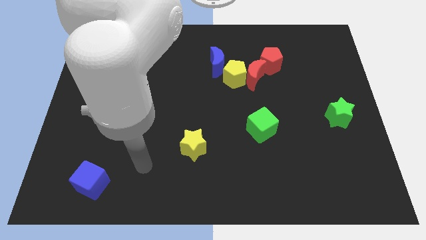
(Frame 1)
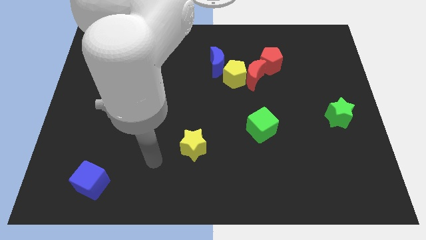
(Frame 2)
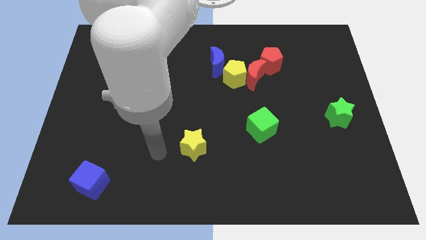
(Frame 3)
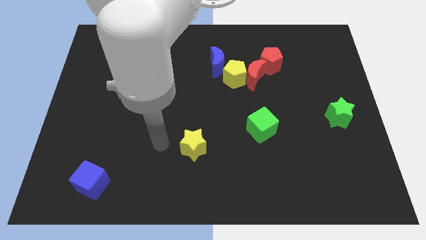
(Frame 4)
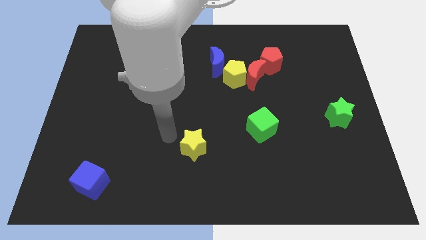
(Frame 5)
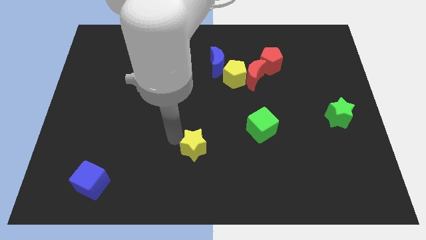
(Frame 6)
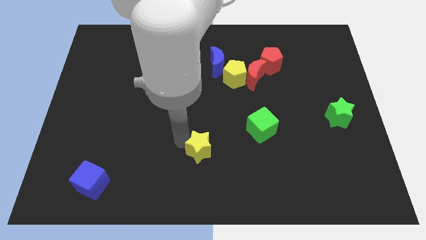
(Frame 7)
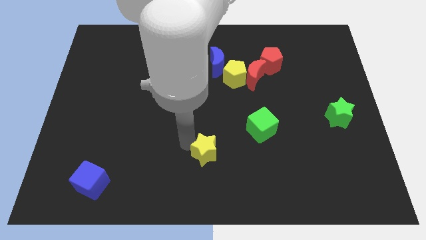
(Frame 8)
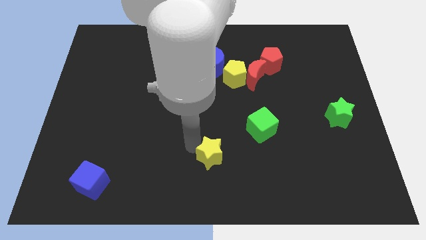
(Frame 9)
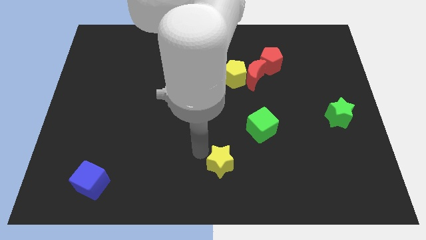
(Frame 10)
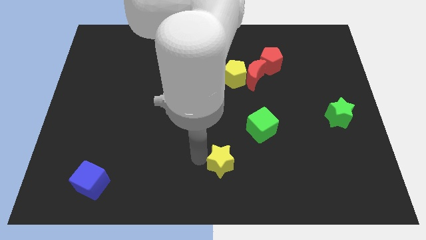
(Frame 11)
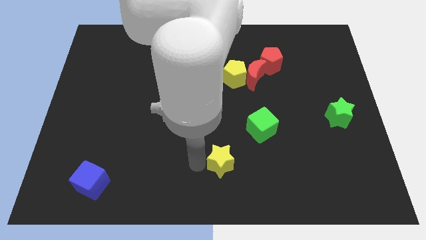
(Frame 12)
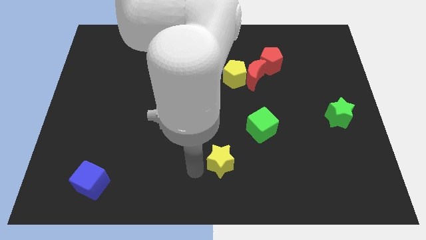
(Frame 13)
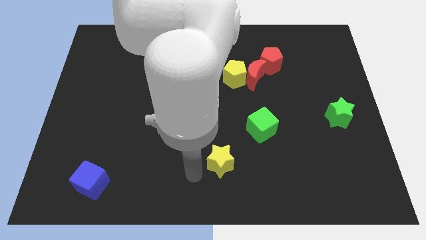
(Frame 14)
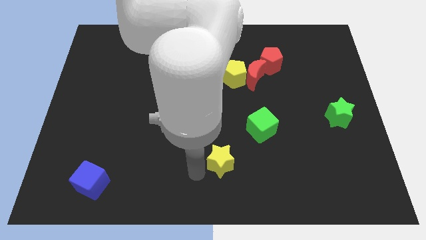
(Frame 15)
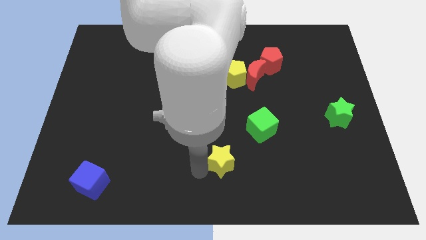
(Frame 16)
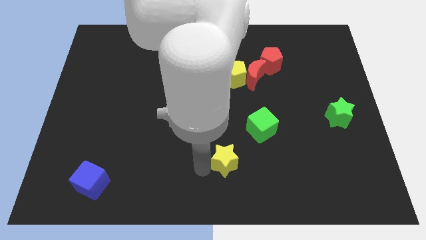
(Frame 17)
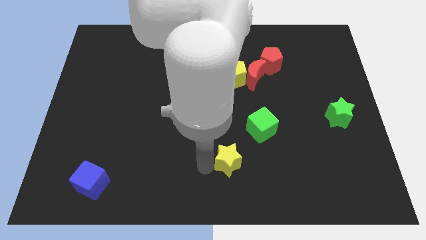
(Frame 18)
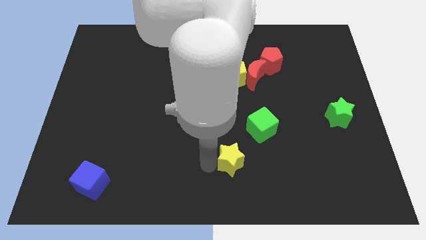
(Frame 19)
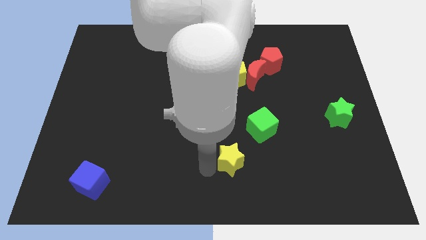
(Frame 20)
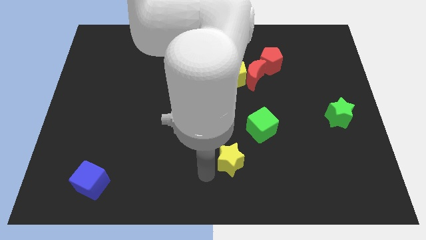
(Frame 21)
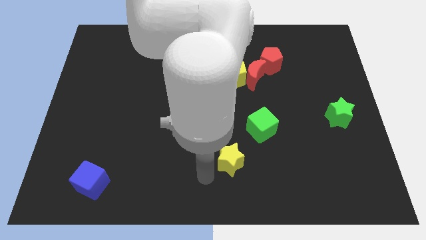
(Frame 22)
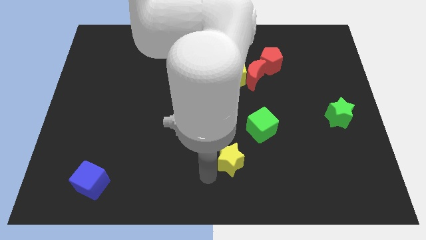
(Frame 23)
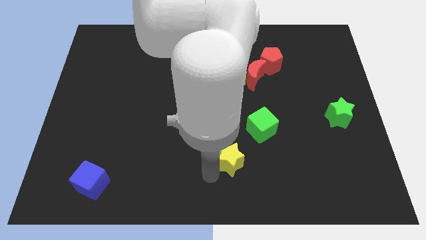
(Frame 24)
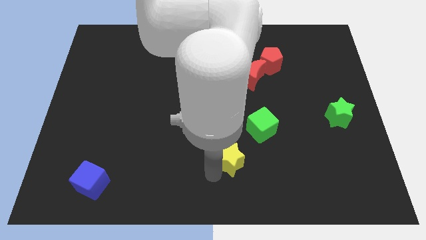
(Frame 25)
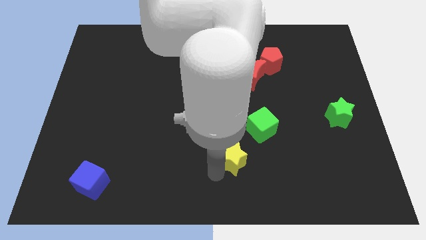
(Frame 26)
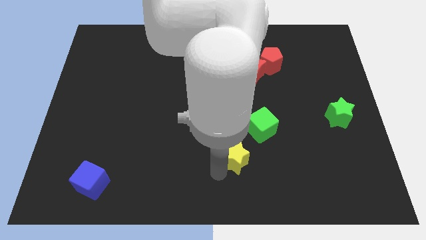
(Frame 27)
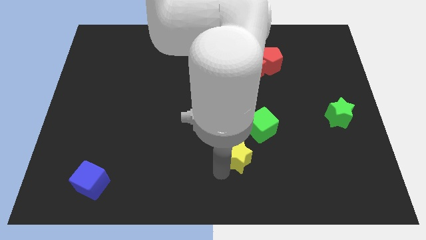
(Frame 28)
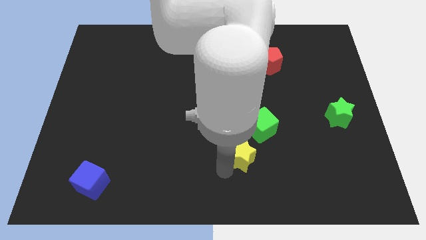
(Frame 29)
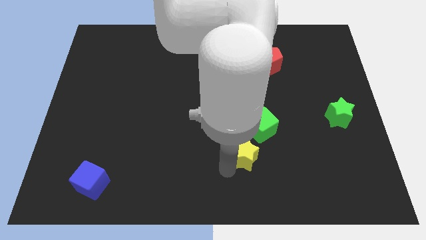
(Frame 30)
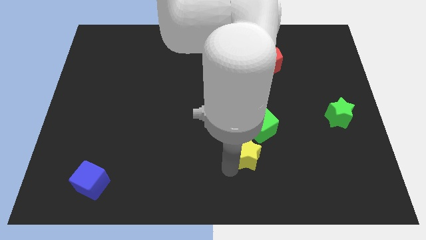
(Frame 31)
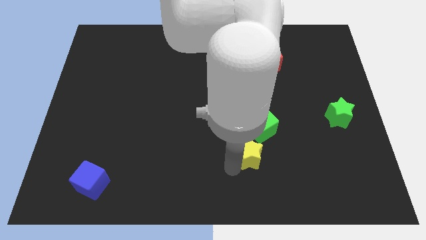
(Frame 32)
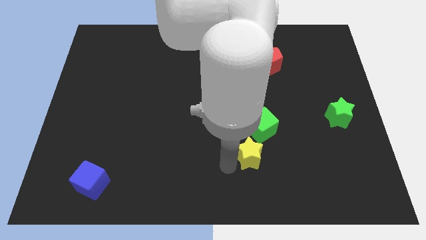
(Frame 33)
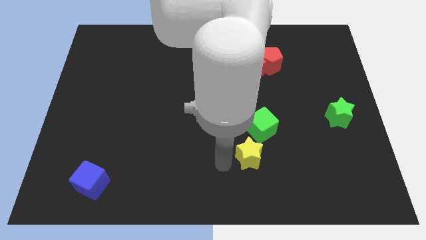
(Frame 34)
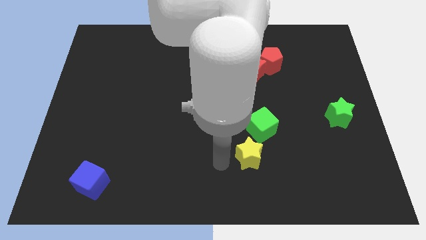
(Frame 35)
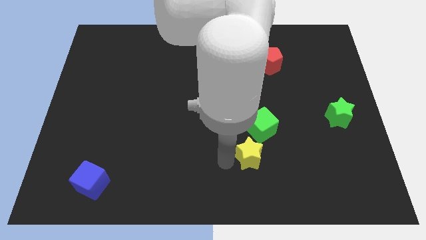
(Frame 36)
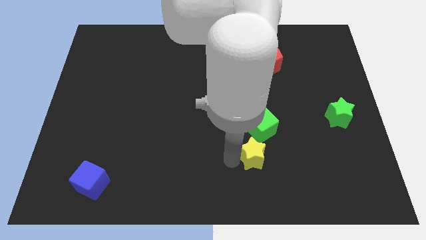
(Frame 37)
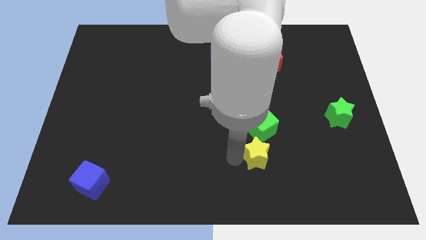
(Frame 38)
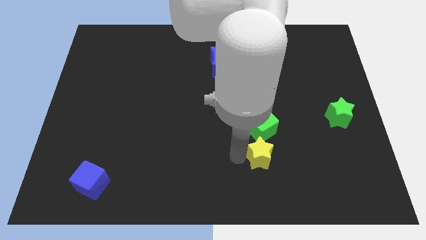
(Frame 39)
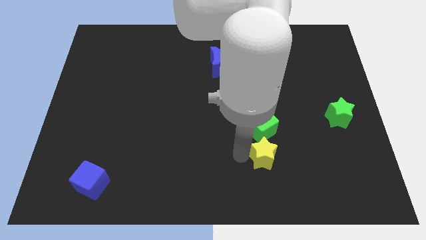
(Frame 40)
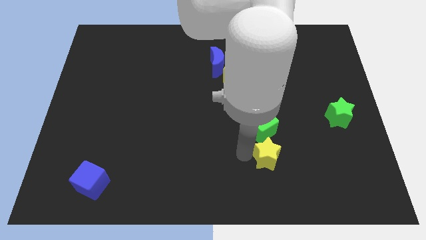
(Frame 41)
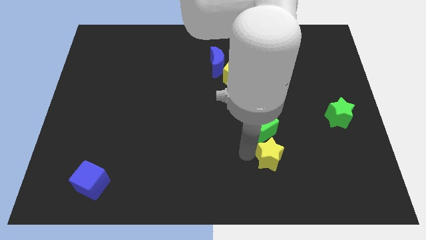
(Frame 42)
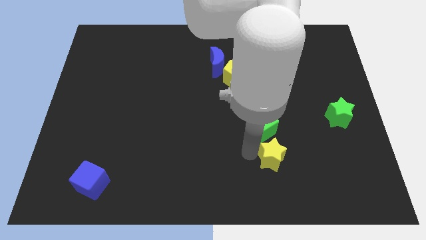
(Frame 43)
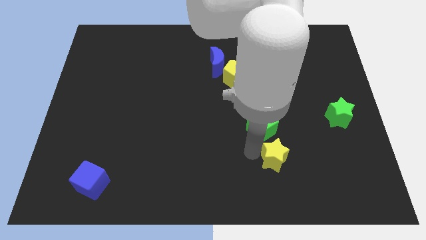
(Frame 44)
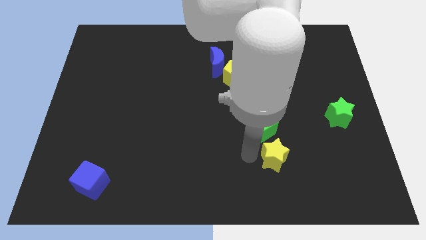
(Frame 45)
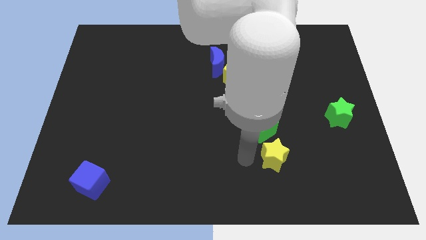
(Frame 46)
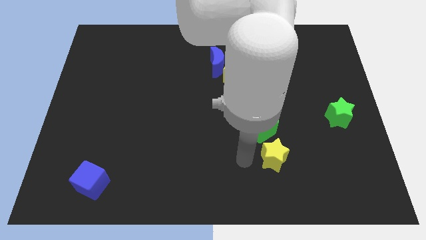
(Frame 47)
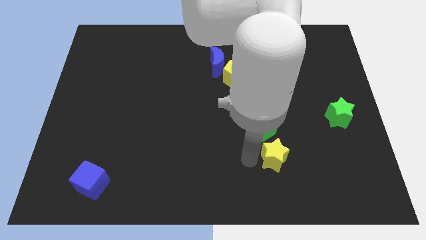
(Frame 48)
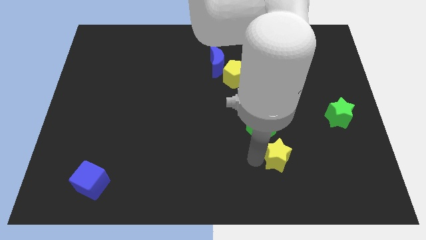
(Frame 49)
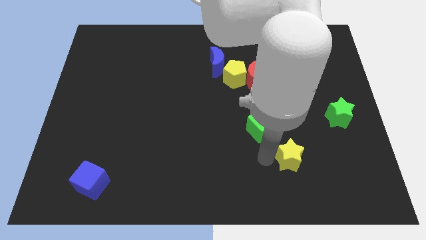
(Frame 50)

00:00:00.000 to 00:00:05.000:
move the yellow star to the right

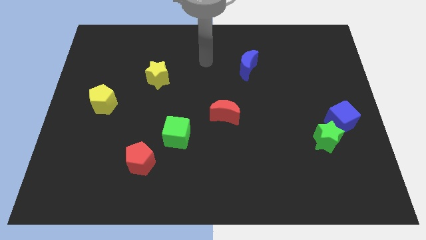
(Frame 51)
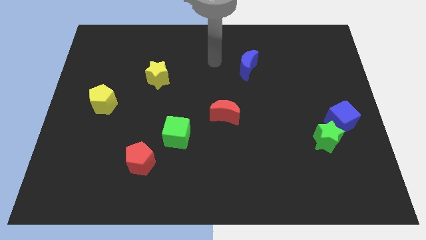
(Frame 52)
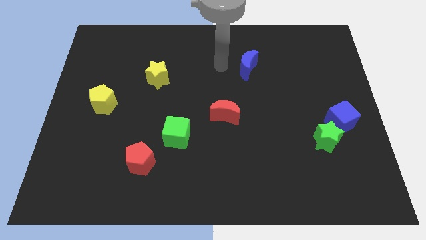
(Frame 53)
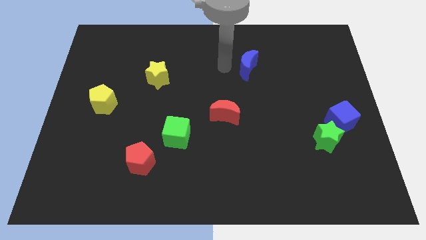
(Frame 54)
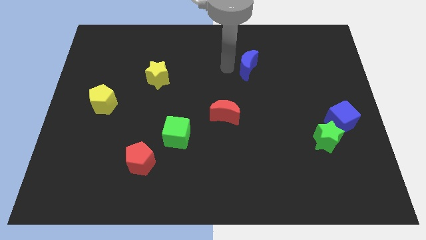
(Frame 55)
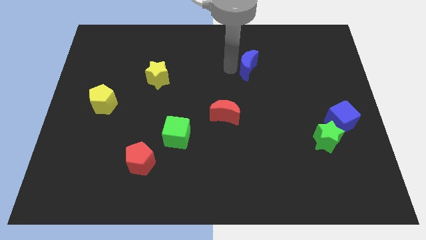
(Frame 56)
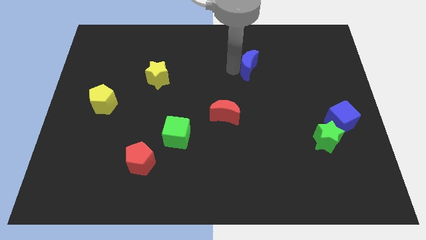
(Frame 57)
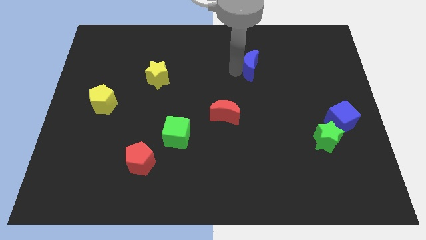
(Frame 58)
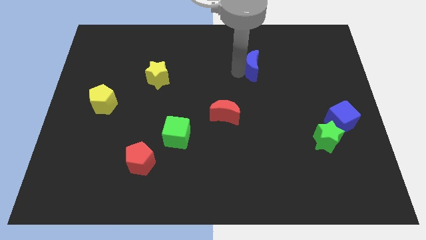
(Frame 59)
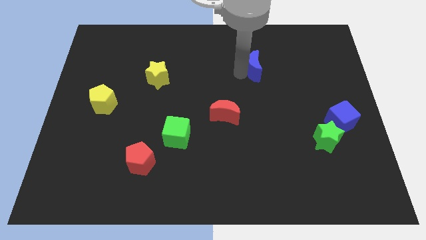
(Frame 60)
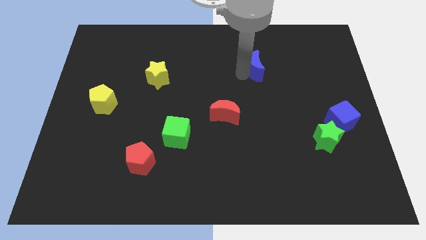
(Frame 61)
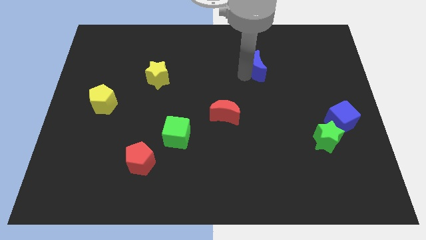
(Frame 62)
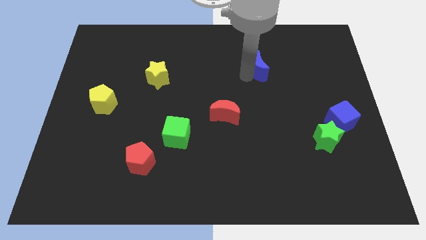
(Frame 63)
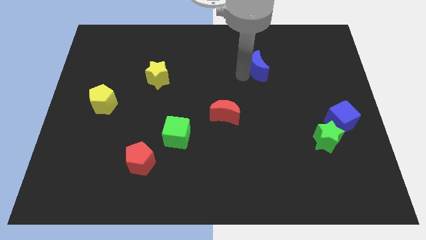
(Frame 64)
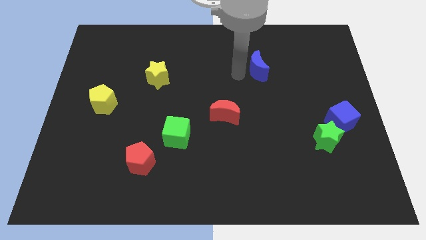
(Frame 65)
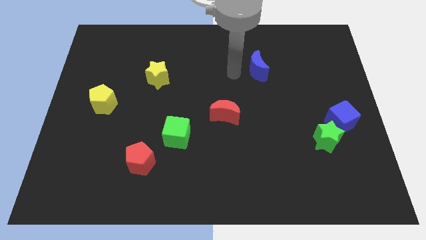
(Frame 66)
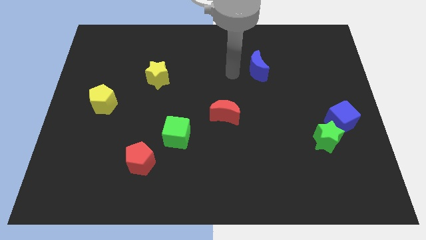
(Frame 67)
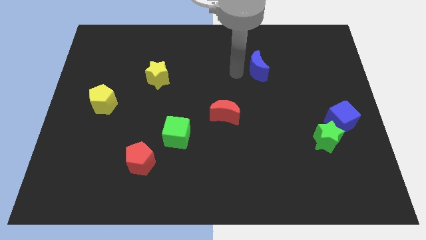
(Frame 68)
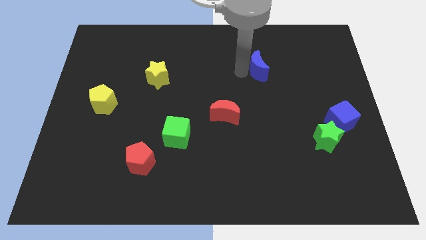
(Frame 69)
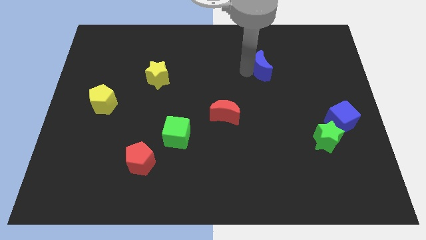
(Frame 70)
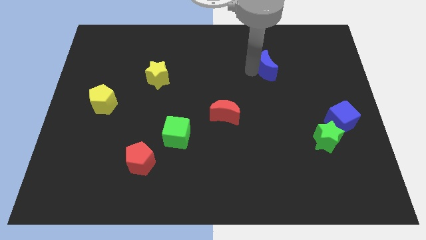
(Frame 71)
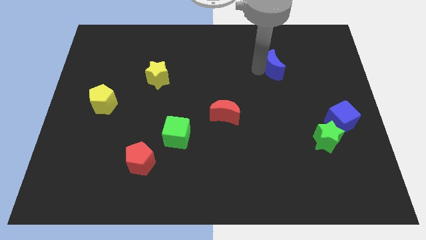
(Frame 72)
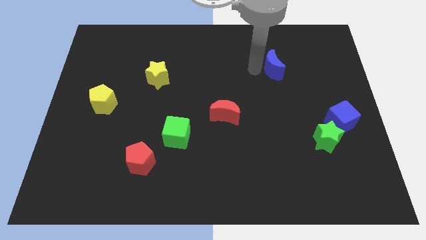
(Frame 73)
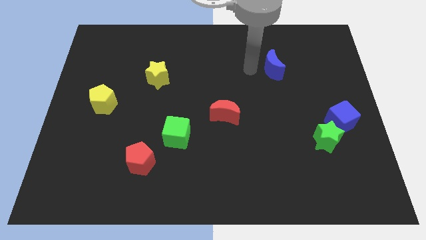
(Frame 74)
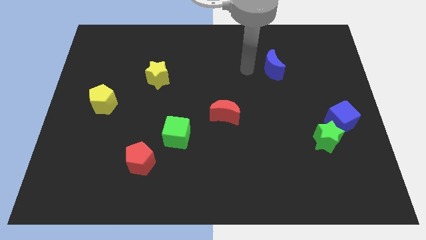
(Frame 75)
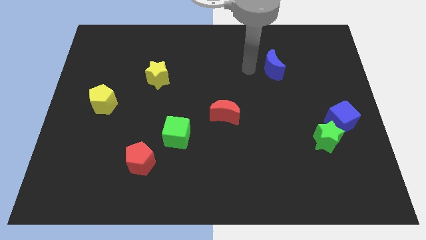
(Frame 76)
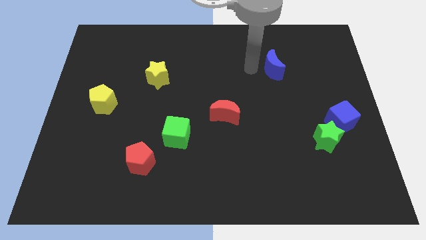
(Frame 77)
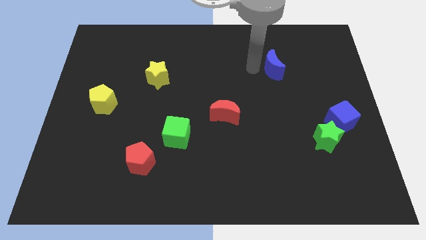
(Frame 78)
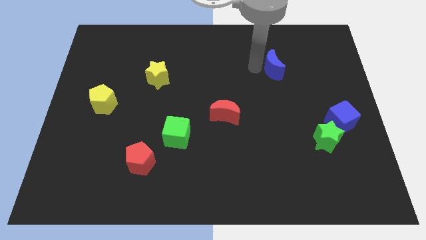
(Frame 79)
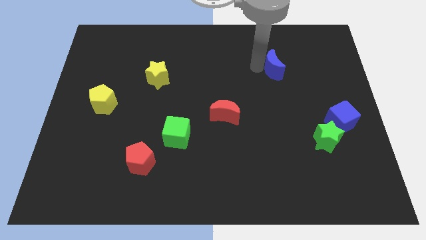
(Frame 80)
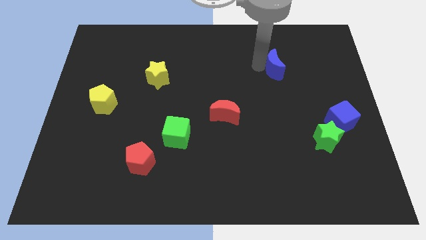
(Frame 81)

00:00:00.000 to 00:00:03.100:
push the blue moon somewhat right
